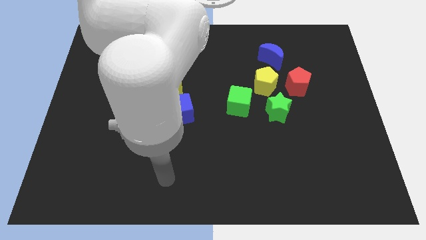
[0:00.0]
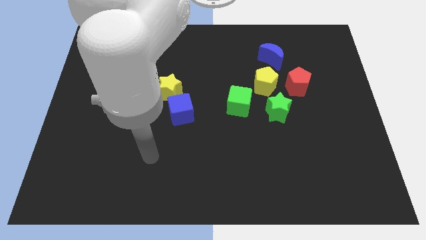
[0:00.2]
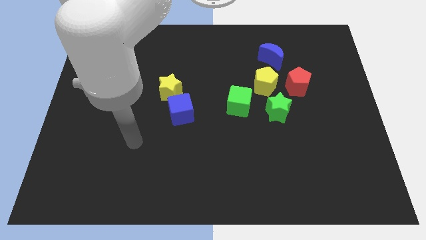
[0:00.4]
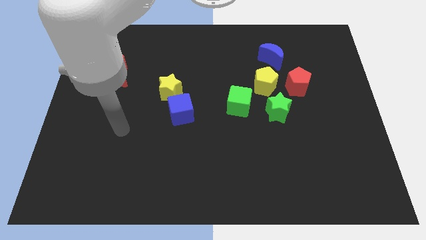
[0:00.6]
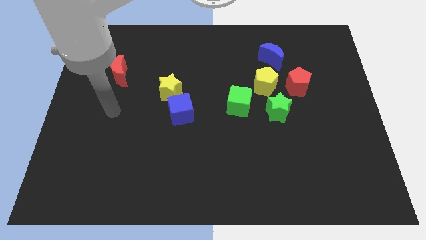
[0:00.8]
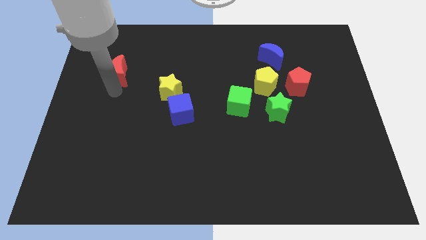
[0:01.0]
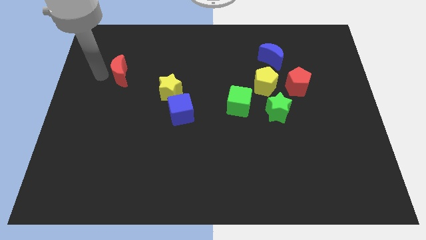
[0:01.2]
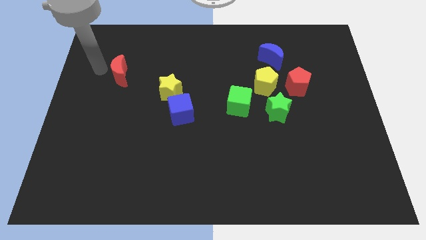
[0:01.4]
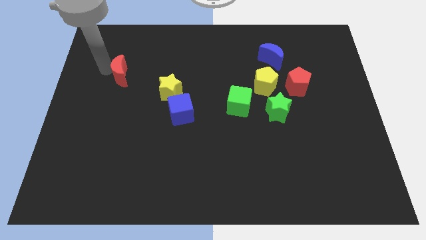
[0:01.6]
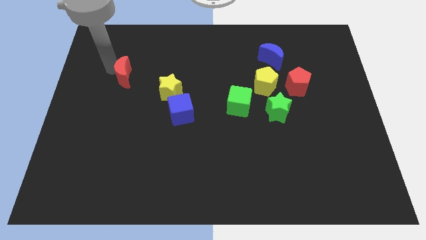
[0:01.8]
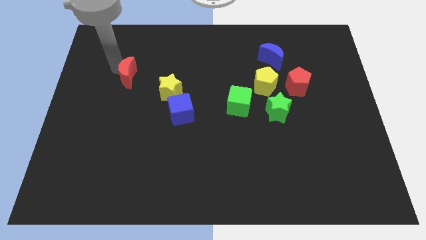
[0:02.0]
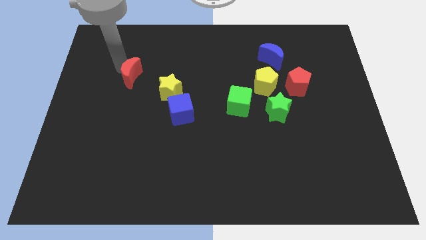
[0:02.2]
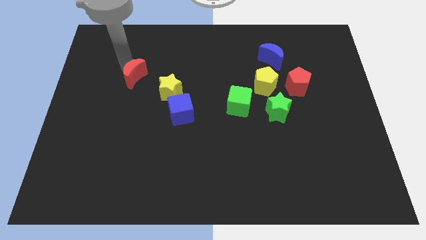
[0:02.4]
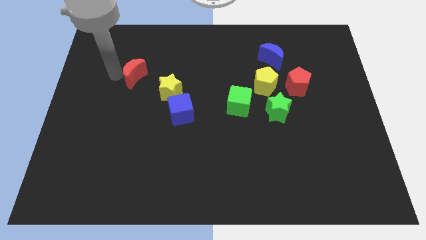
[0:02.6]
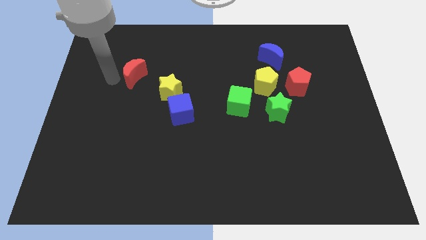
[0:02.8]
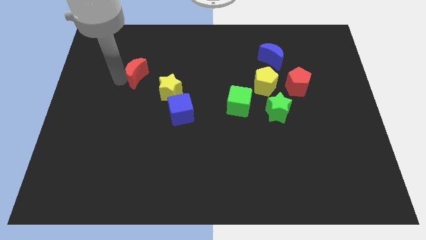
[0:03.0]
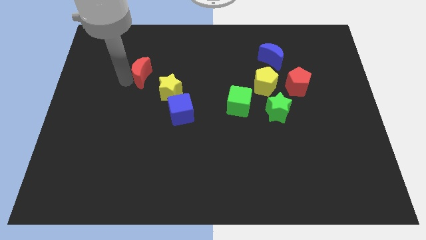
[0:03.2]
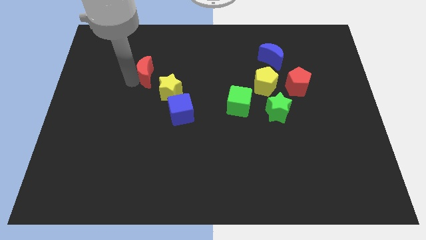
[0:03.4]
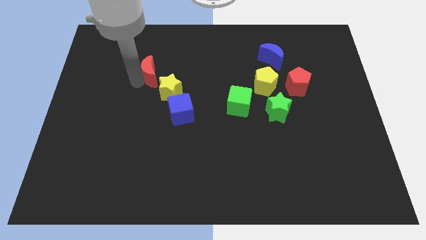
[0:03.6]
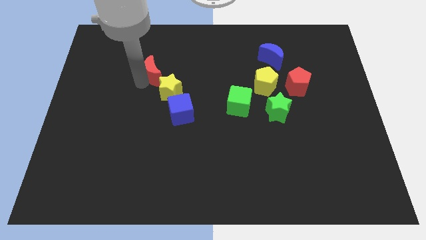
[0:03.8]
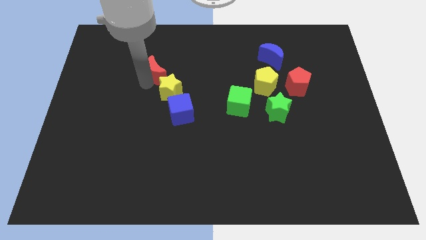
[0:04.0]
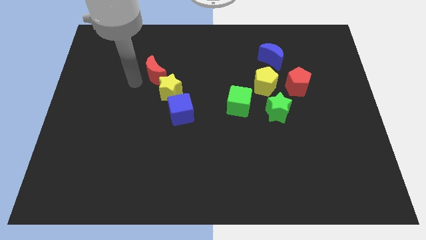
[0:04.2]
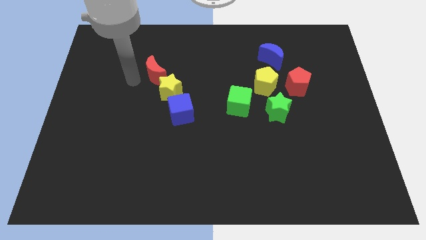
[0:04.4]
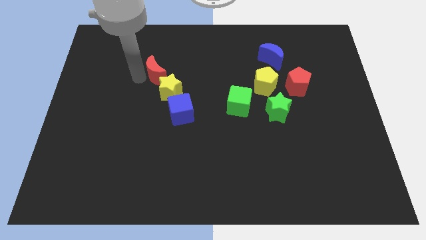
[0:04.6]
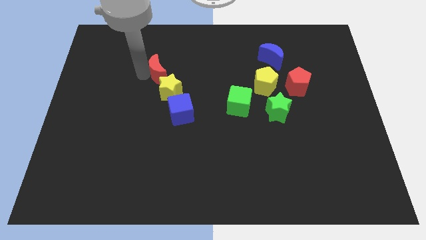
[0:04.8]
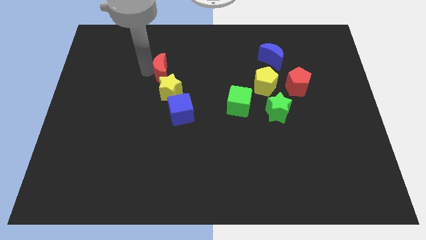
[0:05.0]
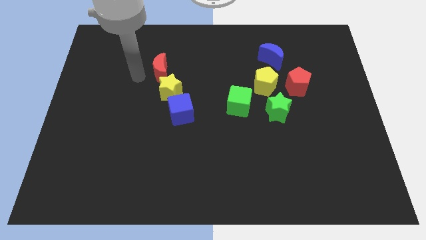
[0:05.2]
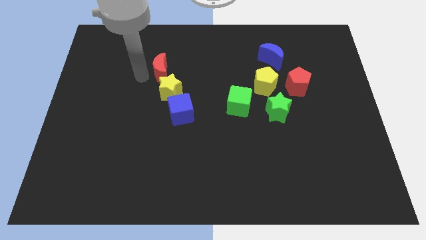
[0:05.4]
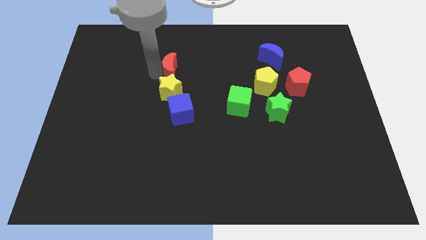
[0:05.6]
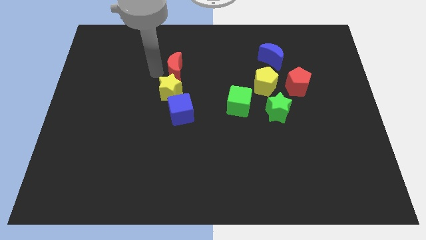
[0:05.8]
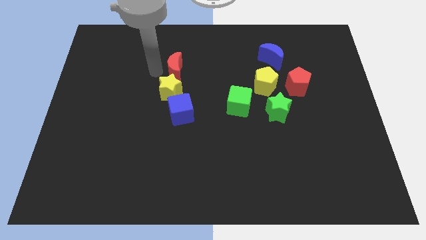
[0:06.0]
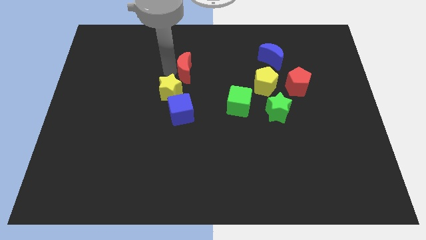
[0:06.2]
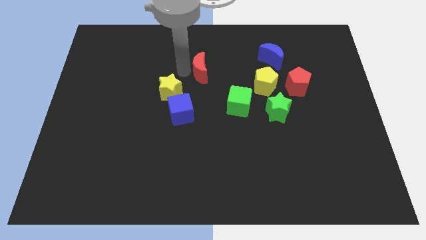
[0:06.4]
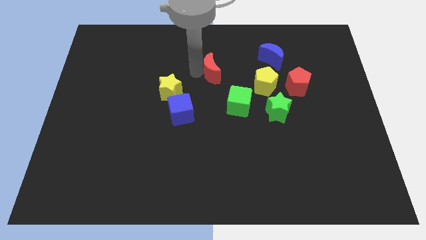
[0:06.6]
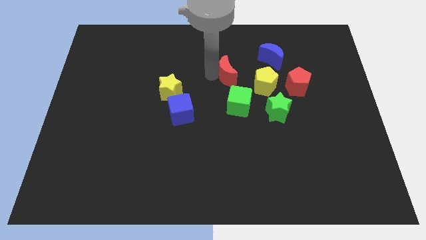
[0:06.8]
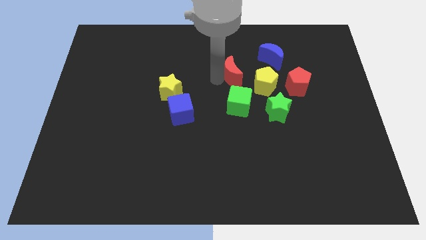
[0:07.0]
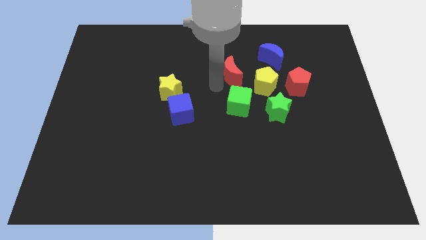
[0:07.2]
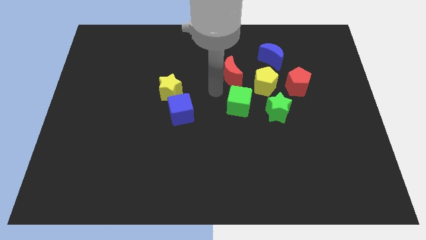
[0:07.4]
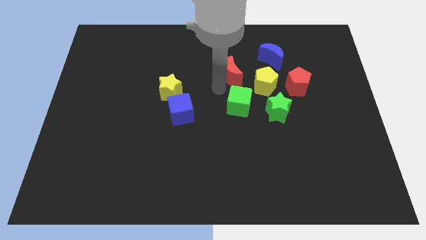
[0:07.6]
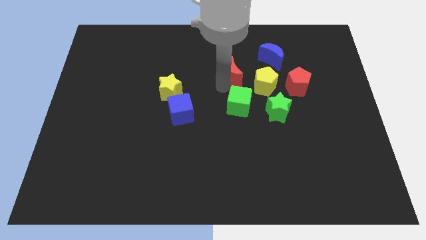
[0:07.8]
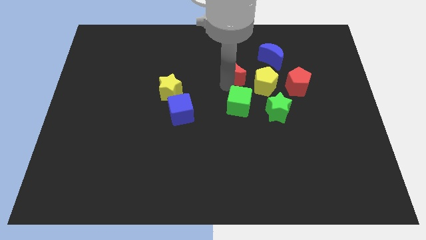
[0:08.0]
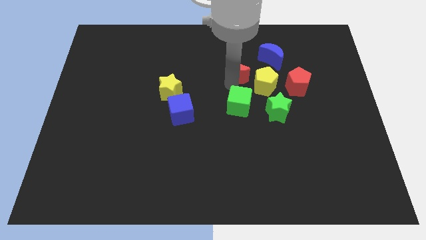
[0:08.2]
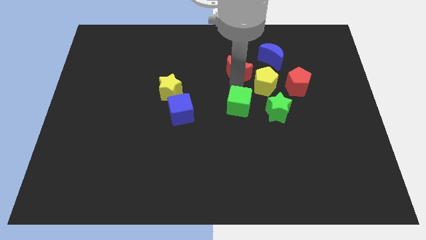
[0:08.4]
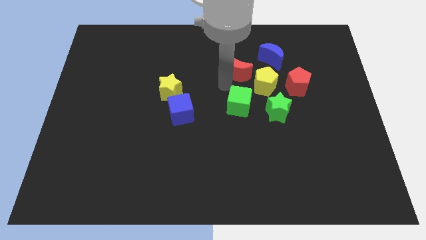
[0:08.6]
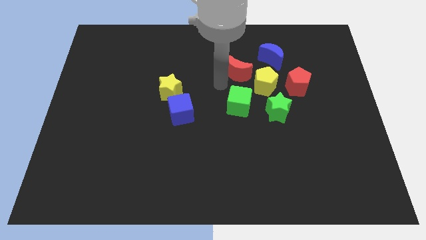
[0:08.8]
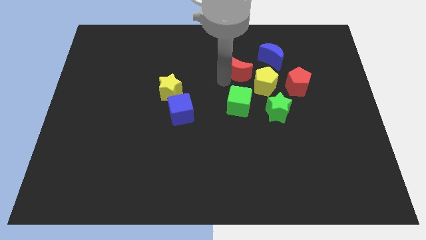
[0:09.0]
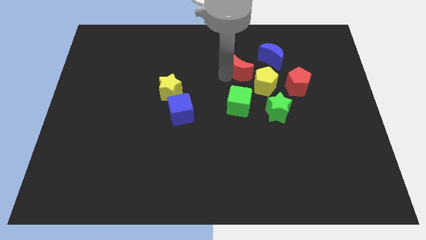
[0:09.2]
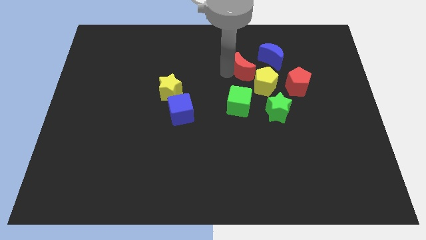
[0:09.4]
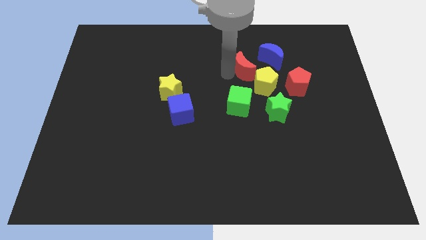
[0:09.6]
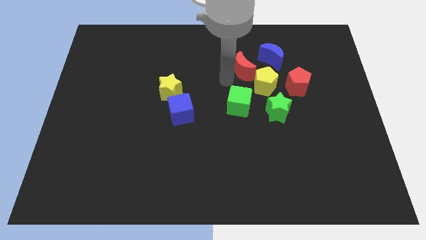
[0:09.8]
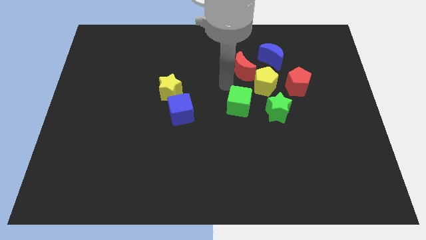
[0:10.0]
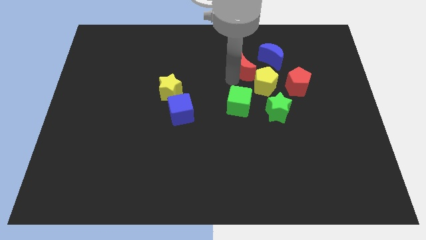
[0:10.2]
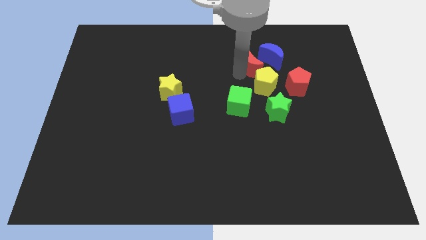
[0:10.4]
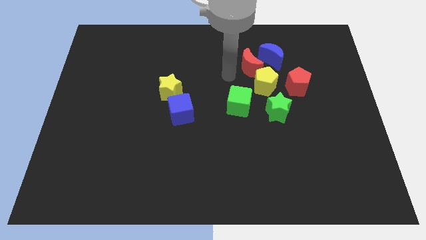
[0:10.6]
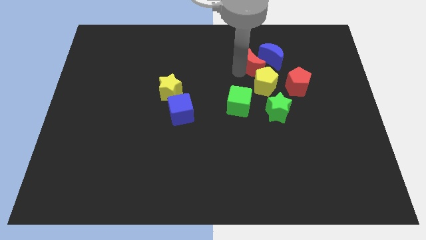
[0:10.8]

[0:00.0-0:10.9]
move the red moon towards the blue moon

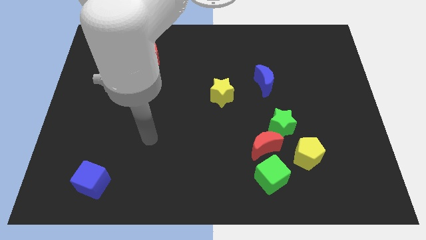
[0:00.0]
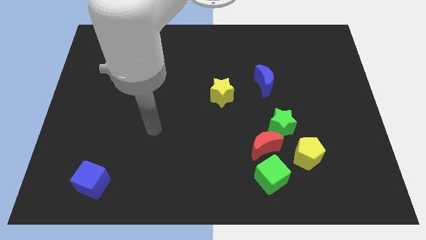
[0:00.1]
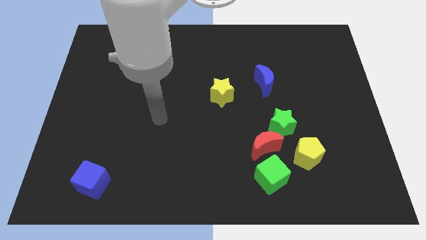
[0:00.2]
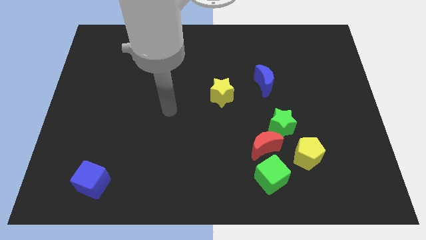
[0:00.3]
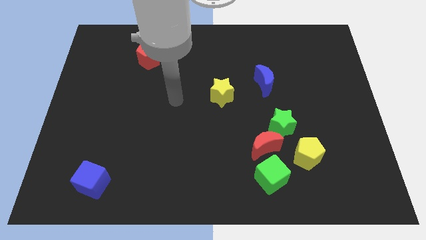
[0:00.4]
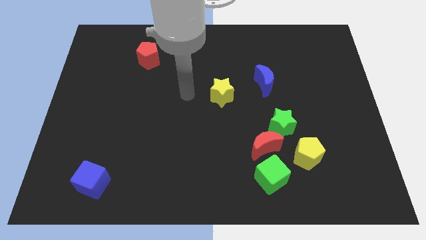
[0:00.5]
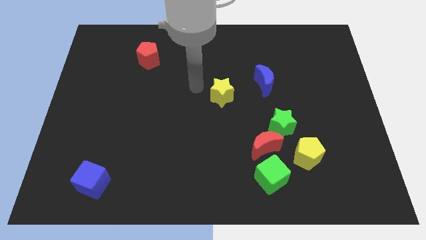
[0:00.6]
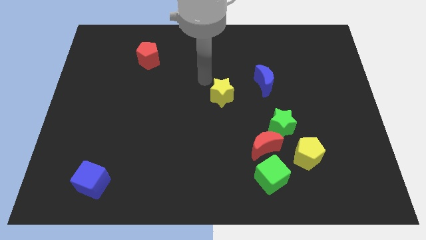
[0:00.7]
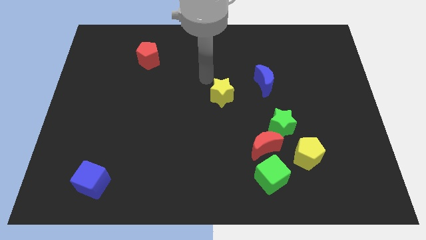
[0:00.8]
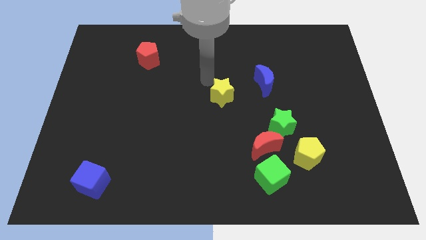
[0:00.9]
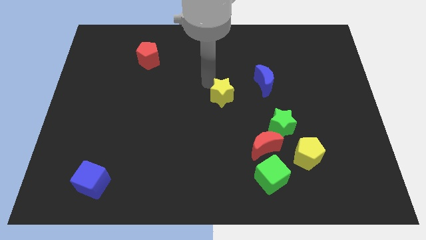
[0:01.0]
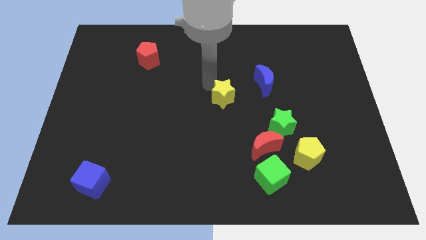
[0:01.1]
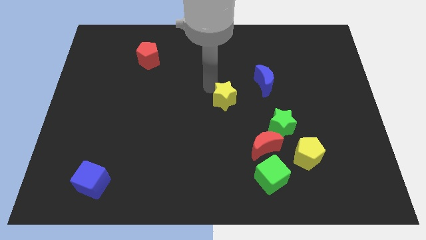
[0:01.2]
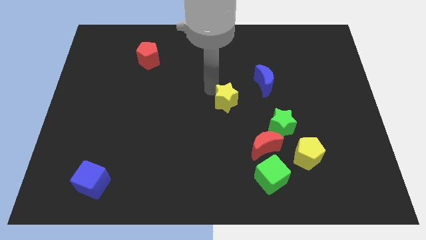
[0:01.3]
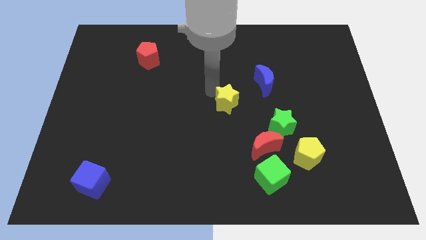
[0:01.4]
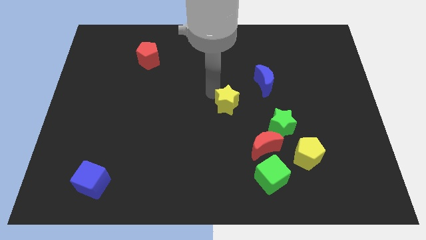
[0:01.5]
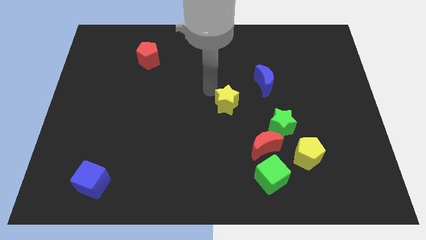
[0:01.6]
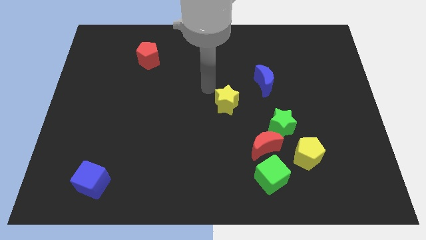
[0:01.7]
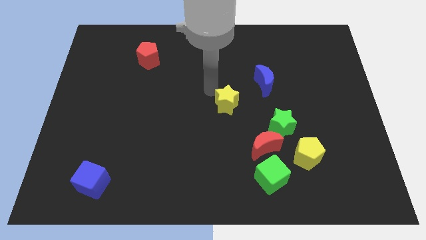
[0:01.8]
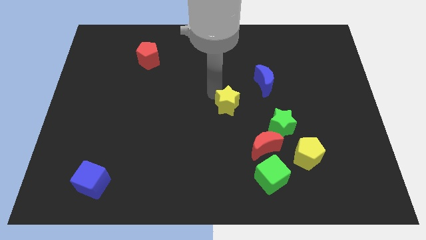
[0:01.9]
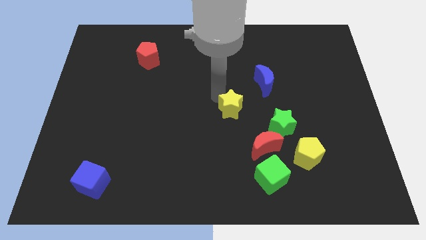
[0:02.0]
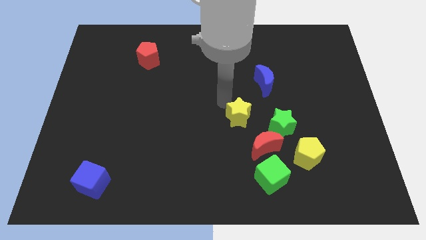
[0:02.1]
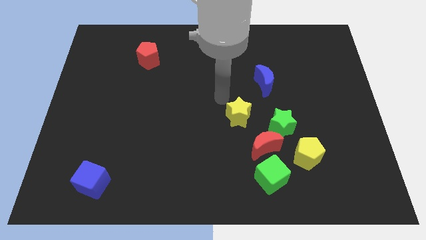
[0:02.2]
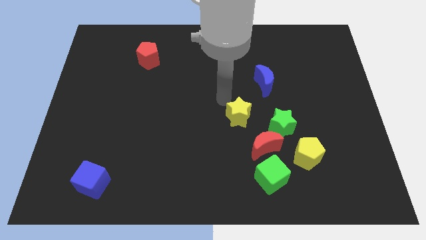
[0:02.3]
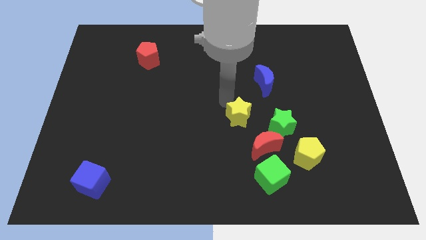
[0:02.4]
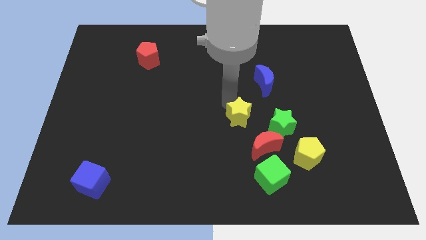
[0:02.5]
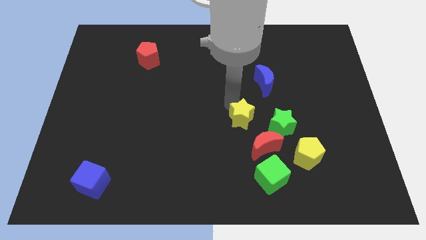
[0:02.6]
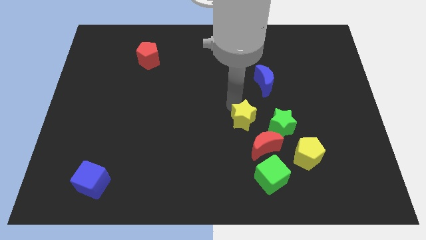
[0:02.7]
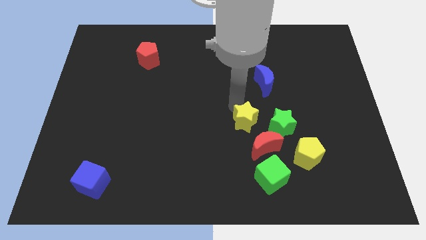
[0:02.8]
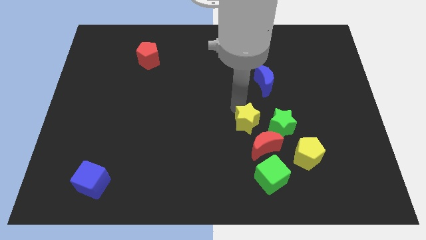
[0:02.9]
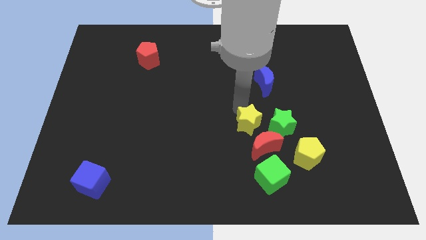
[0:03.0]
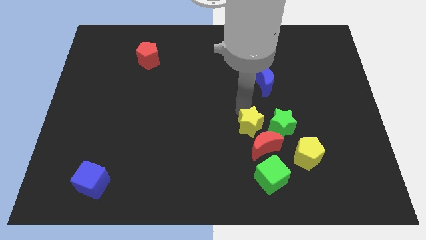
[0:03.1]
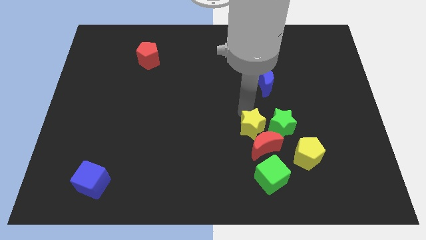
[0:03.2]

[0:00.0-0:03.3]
move the yellow star to the red moon
